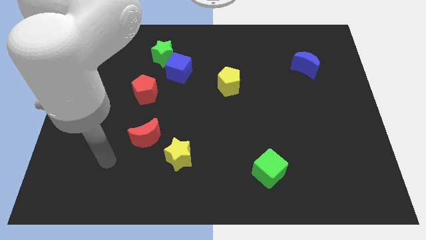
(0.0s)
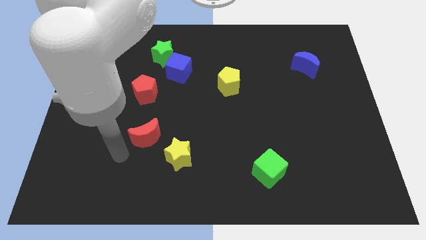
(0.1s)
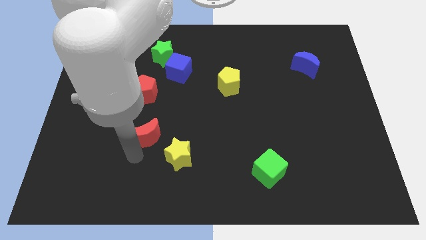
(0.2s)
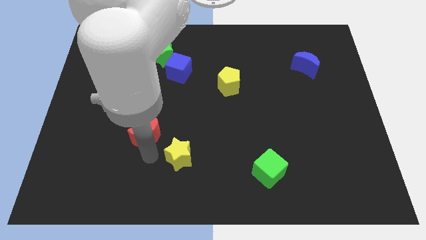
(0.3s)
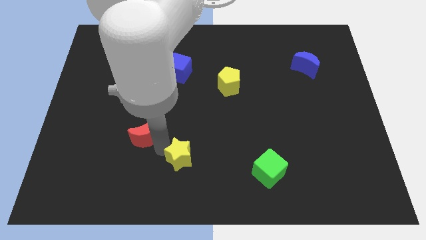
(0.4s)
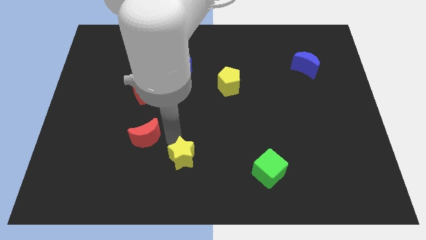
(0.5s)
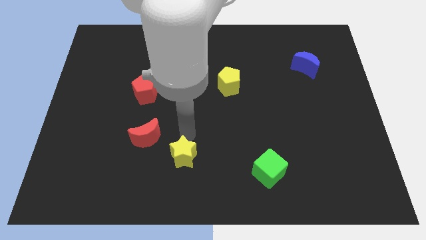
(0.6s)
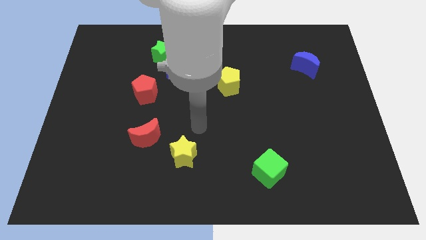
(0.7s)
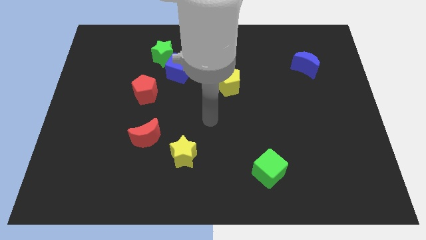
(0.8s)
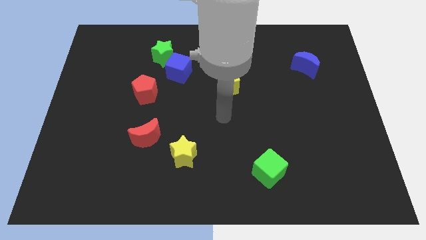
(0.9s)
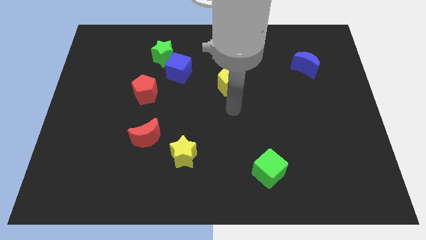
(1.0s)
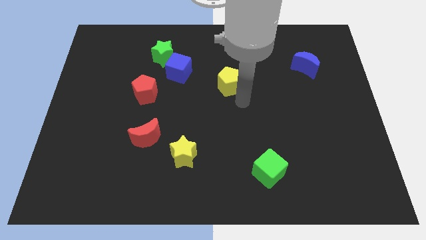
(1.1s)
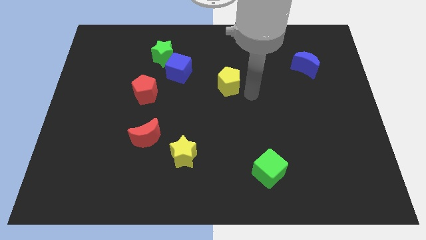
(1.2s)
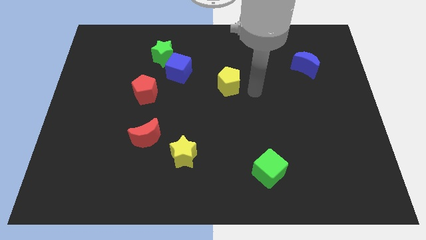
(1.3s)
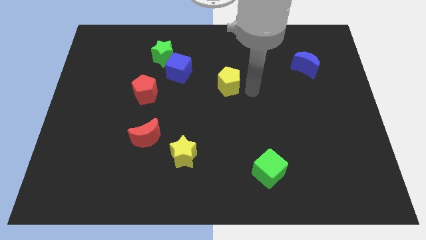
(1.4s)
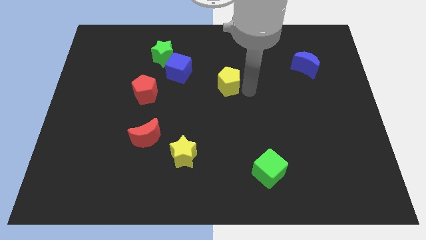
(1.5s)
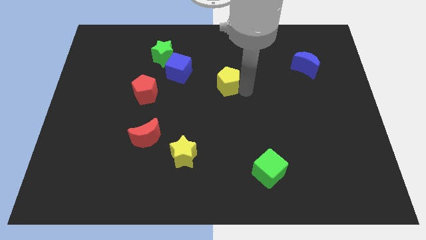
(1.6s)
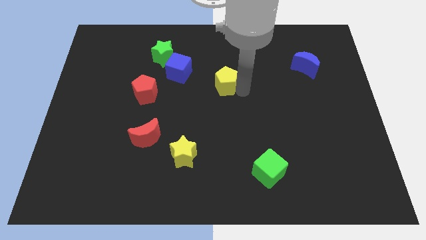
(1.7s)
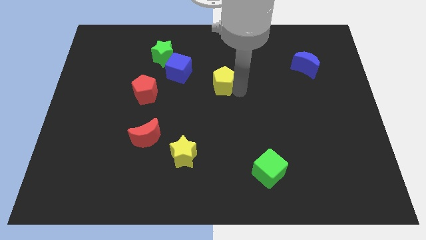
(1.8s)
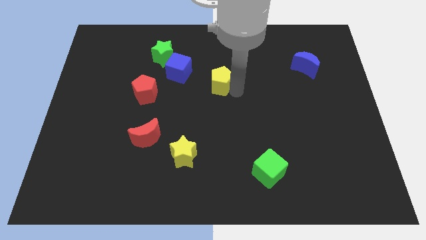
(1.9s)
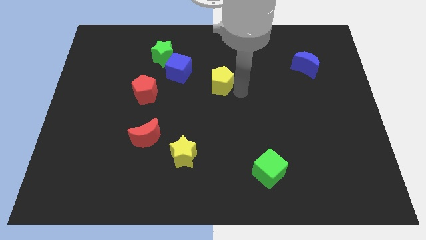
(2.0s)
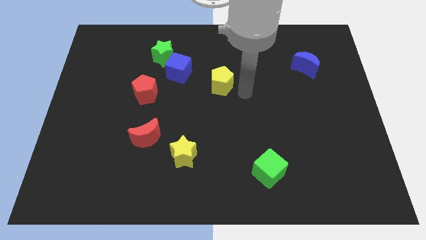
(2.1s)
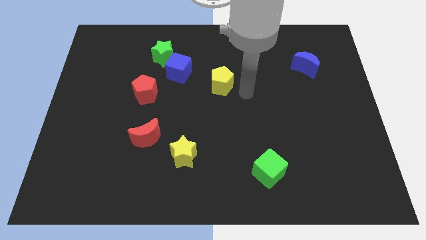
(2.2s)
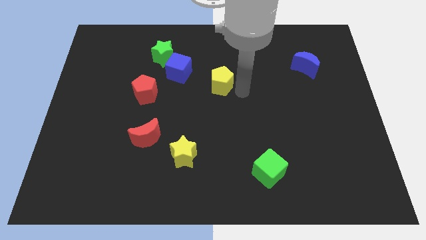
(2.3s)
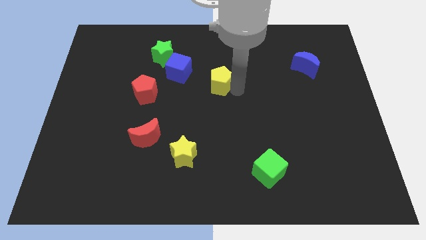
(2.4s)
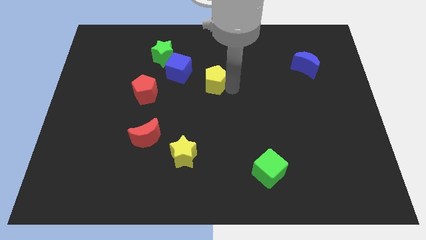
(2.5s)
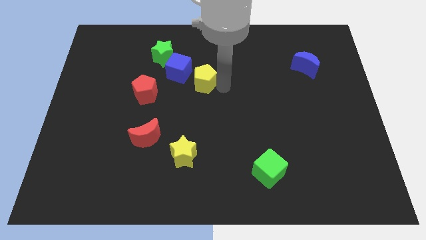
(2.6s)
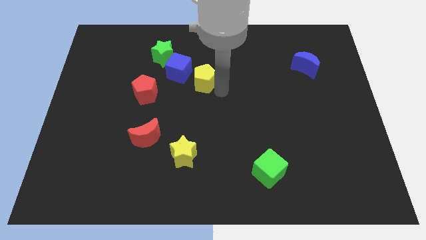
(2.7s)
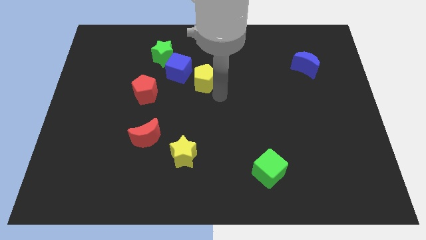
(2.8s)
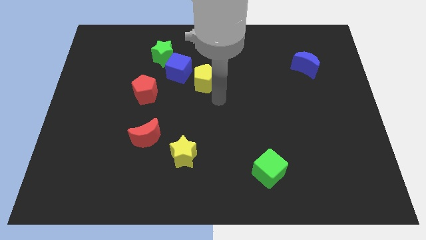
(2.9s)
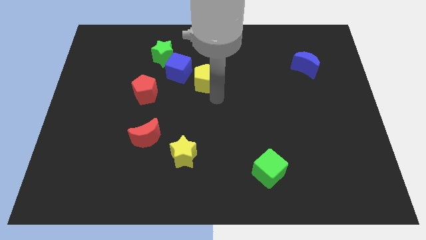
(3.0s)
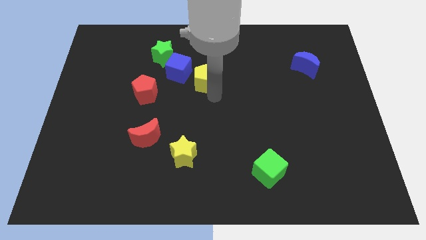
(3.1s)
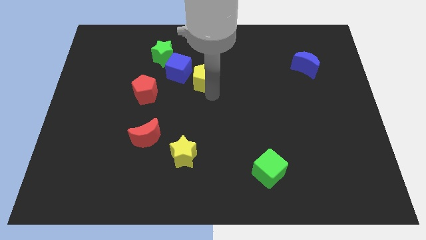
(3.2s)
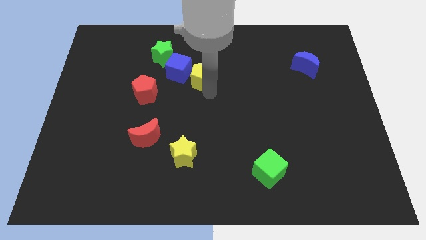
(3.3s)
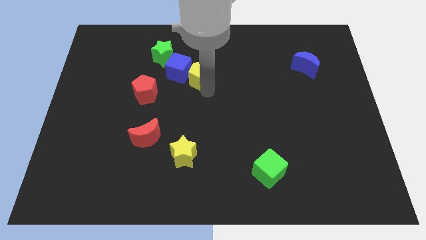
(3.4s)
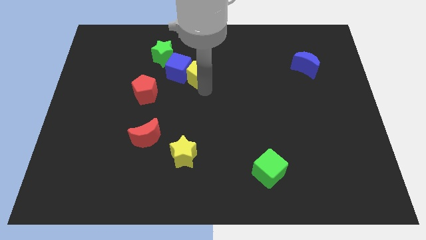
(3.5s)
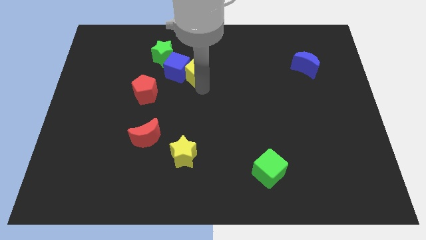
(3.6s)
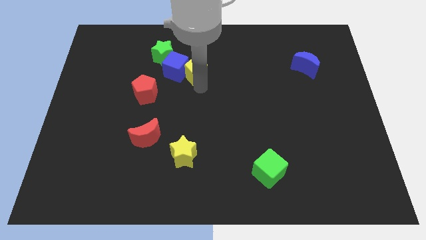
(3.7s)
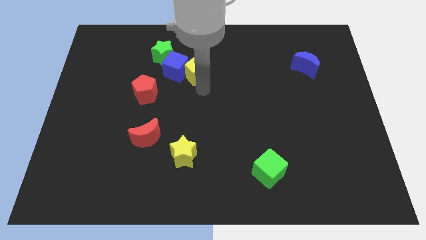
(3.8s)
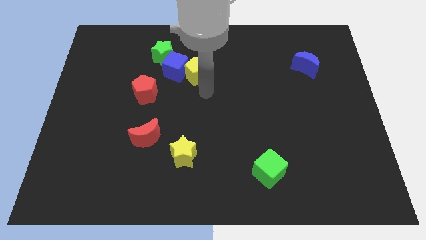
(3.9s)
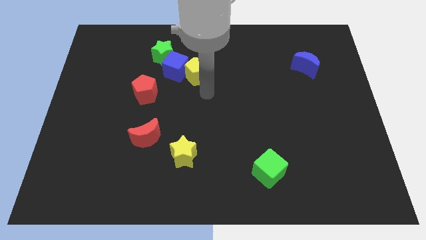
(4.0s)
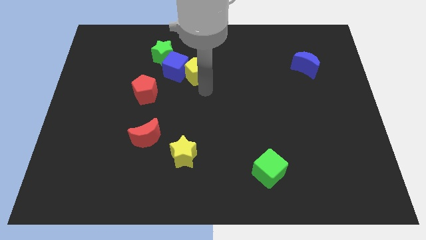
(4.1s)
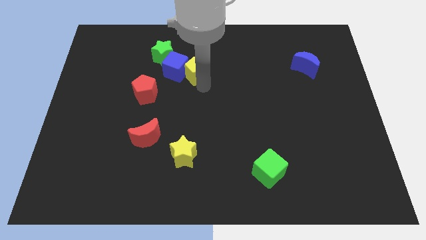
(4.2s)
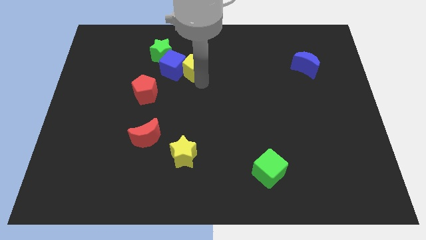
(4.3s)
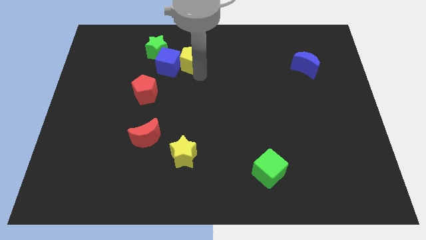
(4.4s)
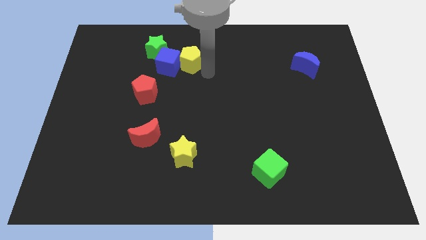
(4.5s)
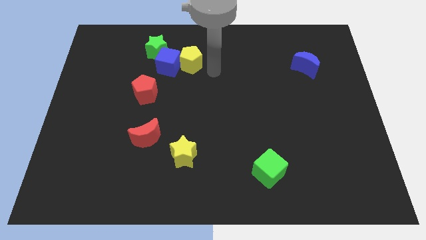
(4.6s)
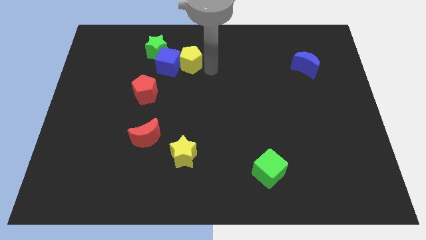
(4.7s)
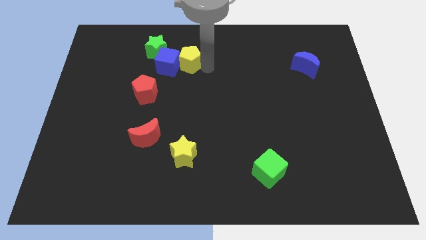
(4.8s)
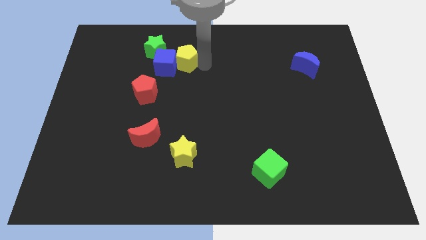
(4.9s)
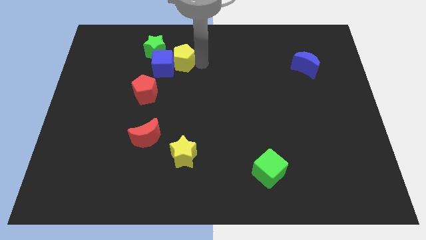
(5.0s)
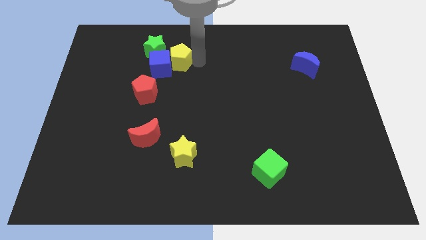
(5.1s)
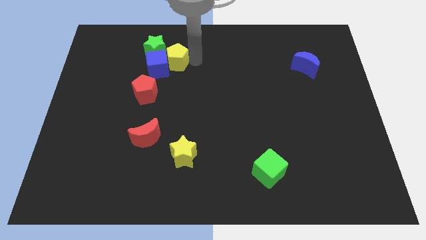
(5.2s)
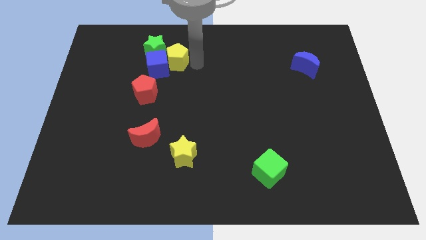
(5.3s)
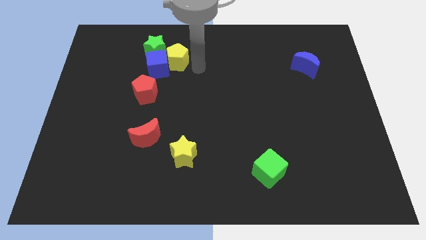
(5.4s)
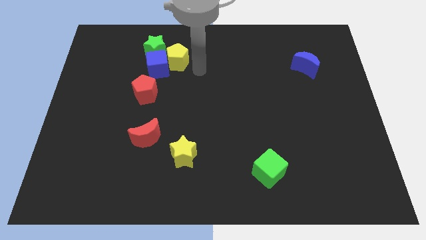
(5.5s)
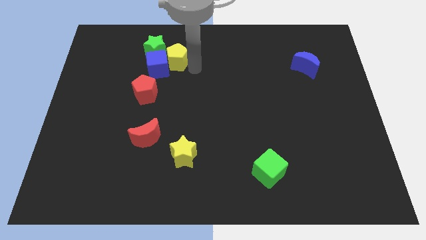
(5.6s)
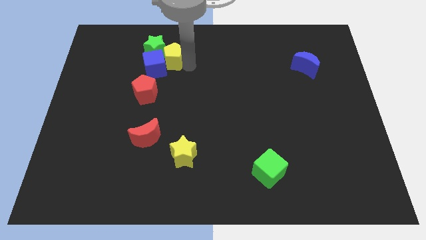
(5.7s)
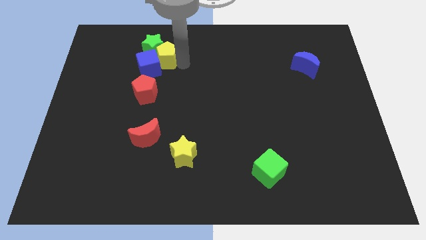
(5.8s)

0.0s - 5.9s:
push the yellow pentagon towards the green star

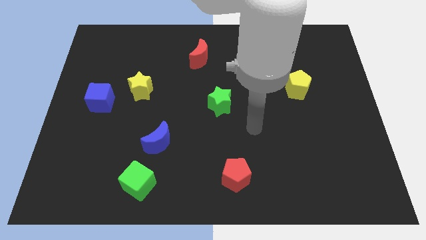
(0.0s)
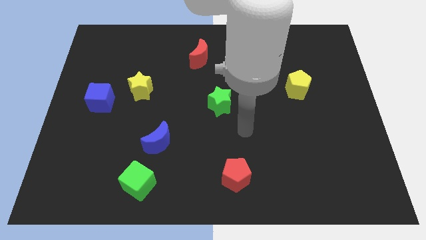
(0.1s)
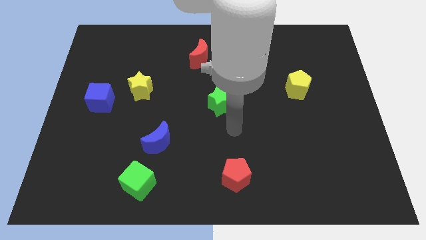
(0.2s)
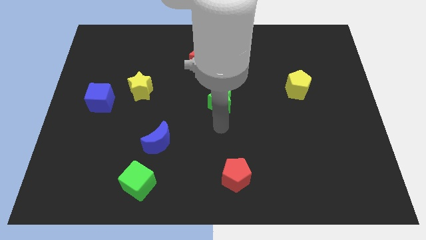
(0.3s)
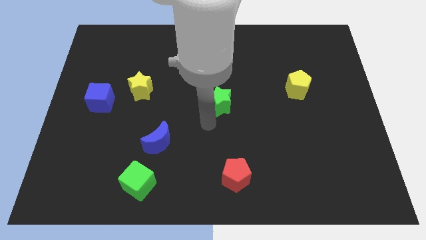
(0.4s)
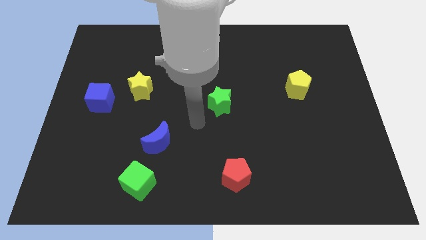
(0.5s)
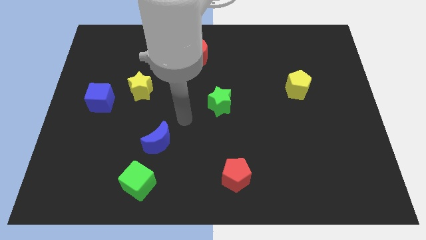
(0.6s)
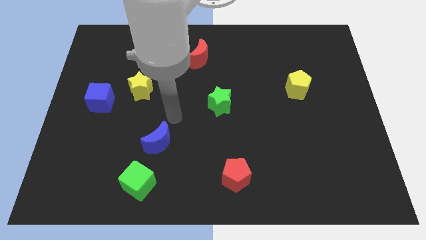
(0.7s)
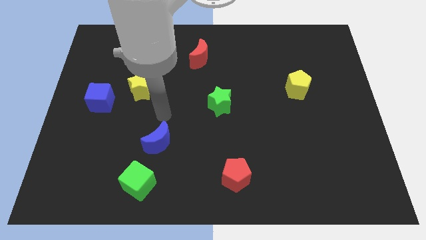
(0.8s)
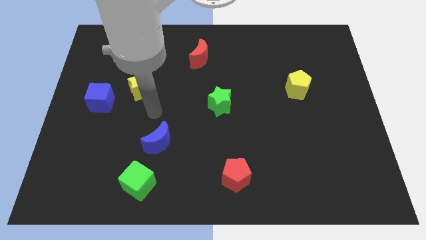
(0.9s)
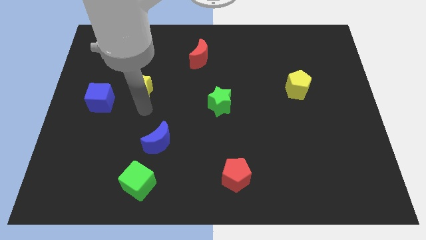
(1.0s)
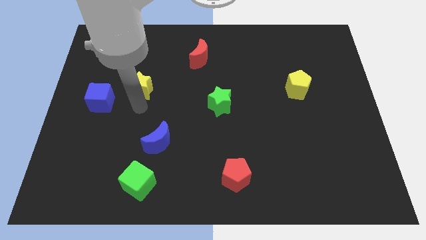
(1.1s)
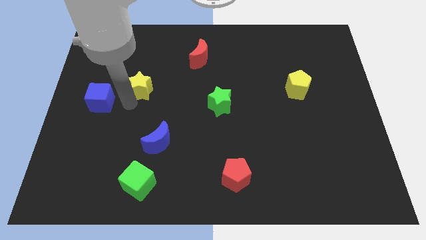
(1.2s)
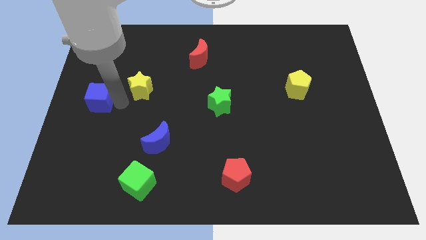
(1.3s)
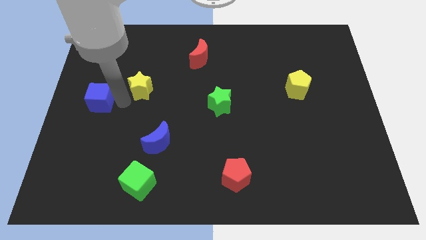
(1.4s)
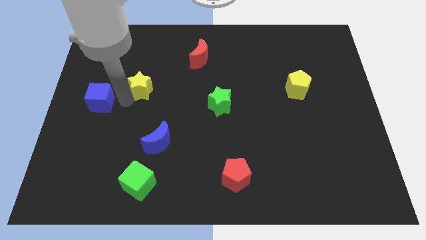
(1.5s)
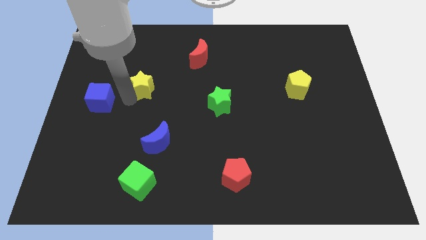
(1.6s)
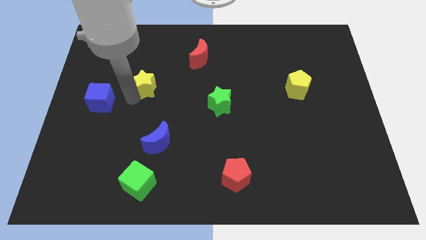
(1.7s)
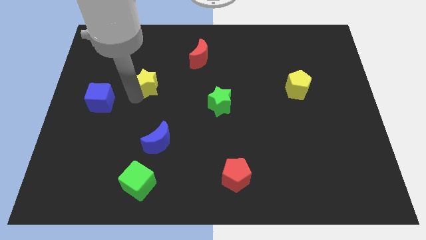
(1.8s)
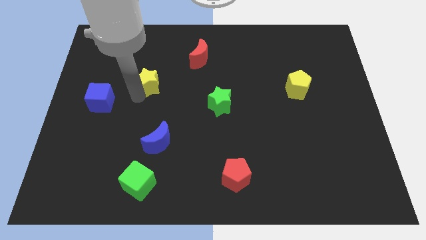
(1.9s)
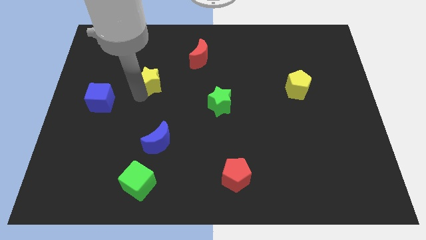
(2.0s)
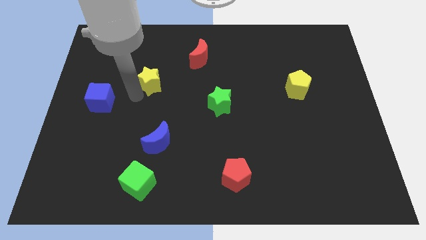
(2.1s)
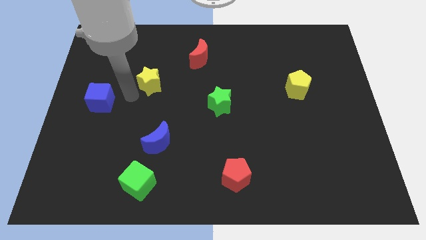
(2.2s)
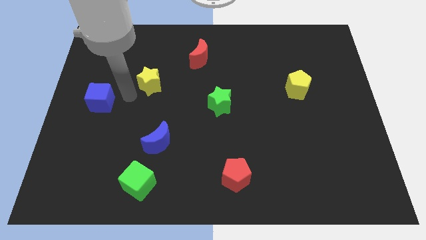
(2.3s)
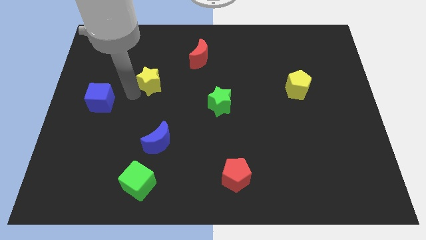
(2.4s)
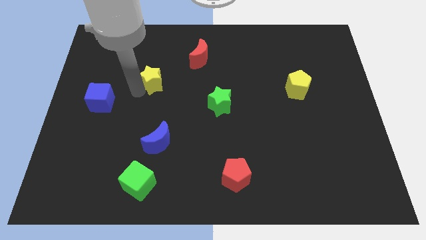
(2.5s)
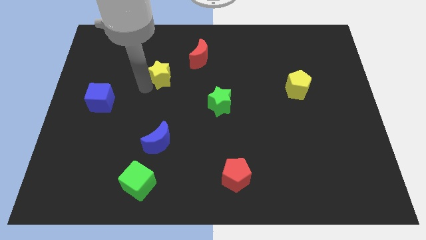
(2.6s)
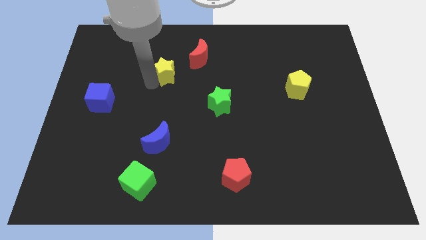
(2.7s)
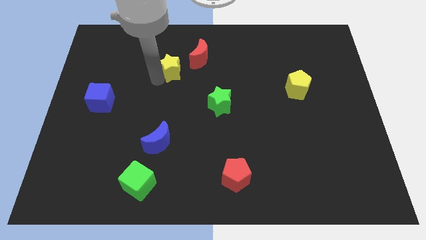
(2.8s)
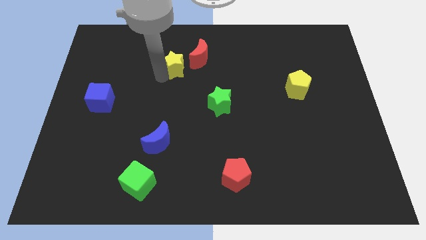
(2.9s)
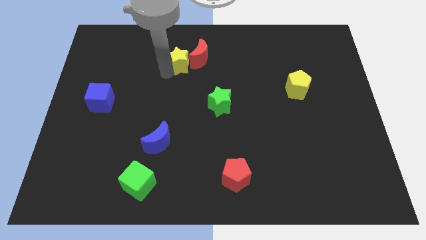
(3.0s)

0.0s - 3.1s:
push the yellow star to the red moon
